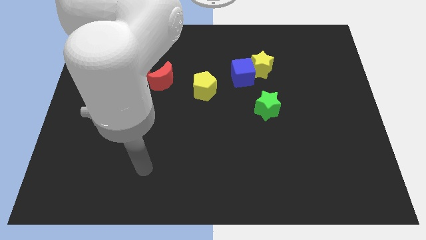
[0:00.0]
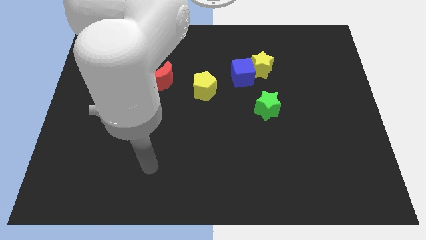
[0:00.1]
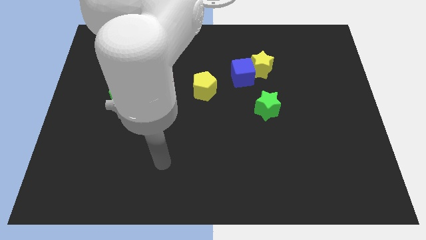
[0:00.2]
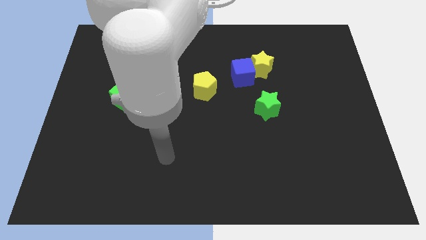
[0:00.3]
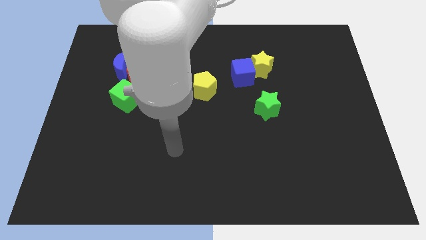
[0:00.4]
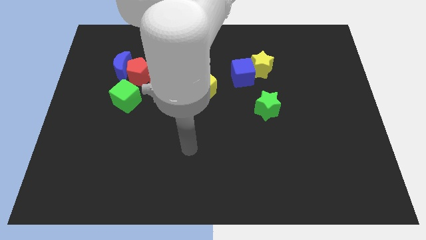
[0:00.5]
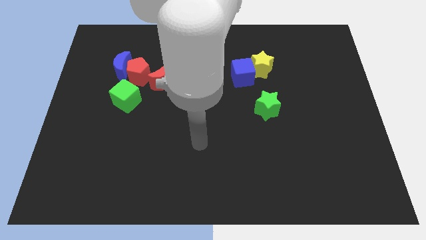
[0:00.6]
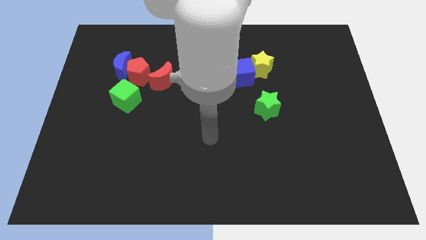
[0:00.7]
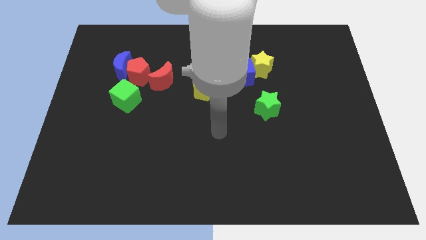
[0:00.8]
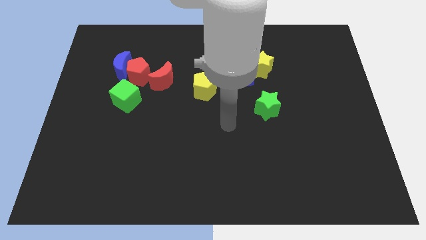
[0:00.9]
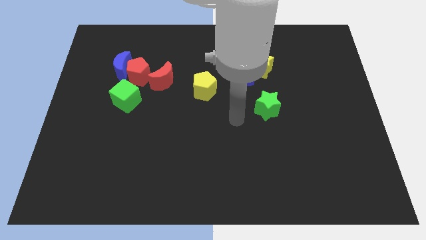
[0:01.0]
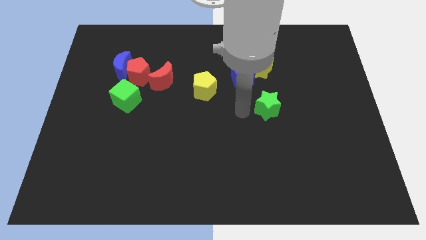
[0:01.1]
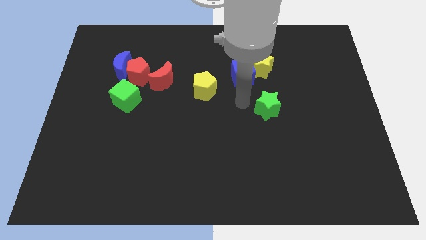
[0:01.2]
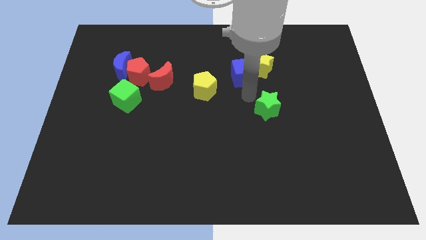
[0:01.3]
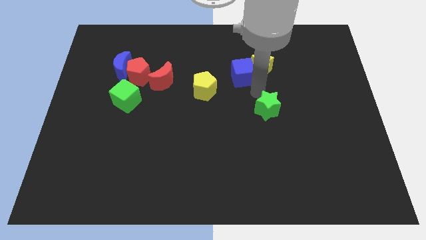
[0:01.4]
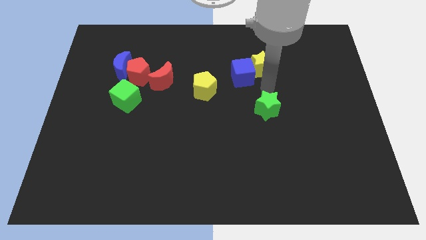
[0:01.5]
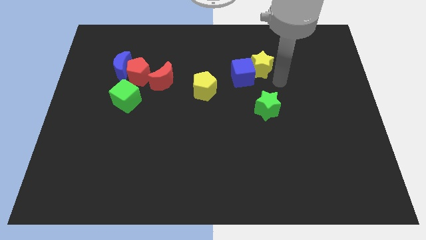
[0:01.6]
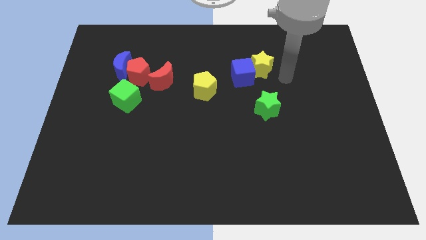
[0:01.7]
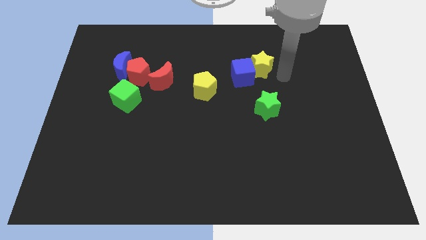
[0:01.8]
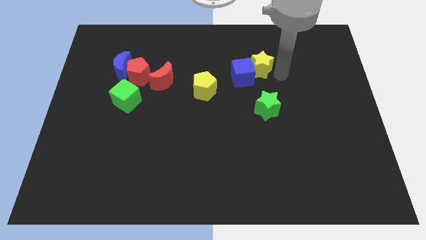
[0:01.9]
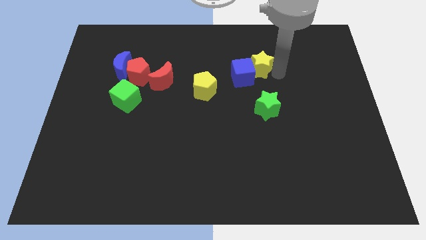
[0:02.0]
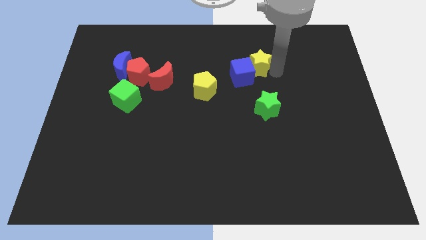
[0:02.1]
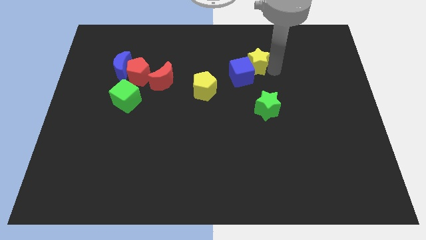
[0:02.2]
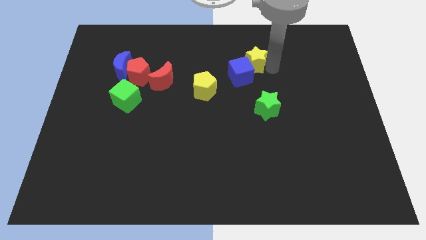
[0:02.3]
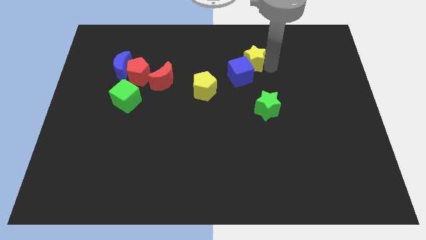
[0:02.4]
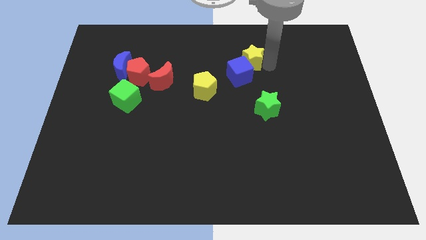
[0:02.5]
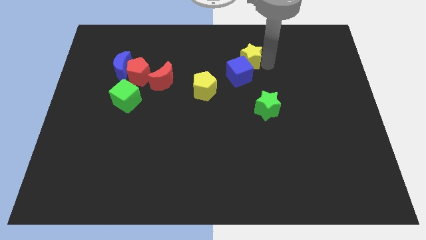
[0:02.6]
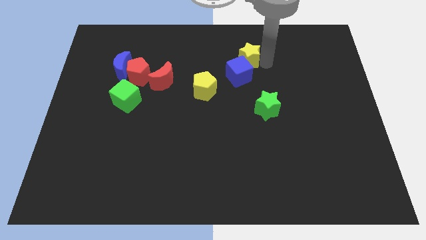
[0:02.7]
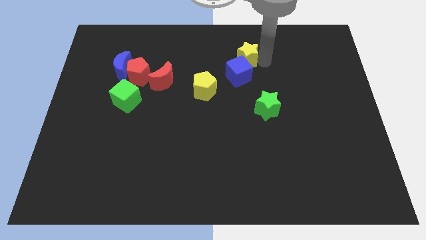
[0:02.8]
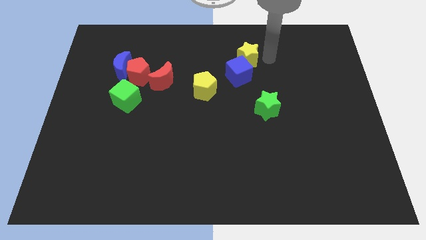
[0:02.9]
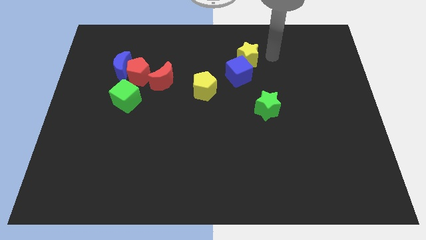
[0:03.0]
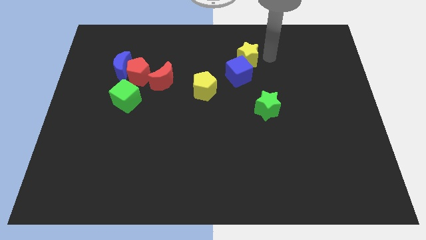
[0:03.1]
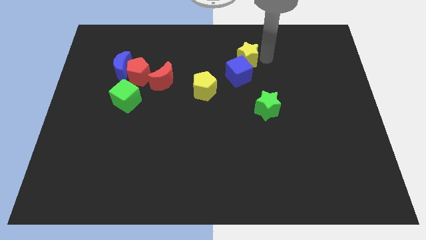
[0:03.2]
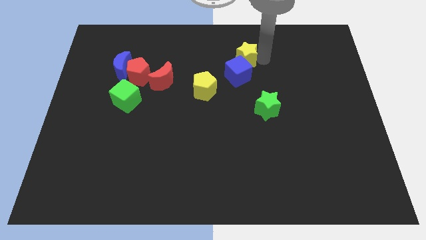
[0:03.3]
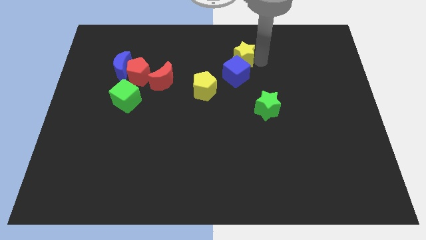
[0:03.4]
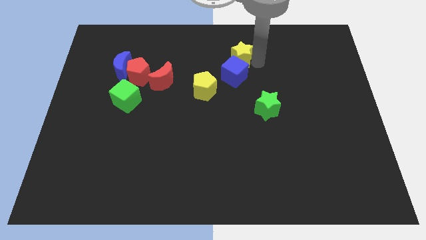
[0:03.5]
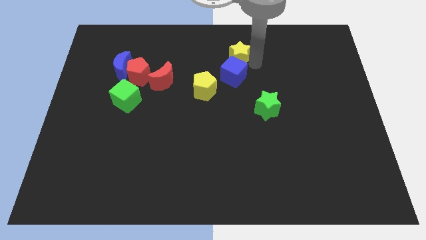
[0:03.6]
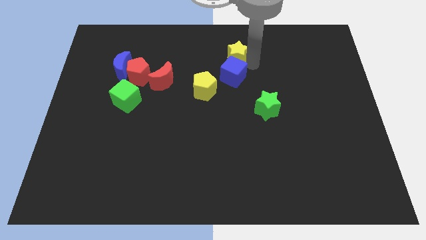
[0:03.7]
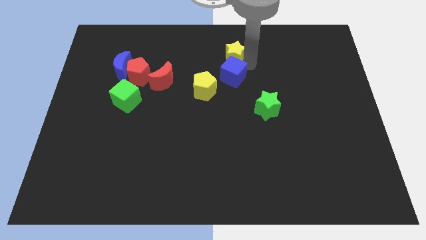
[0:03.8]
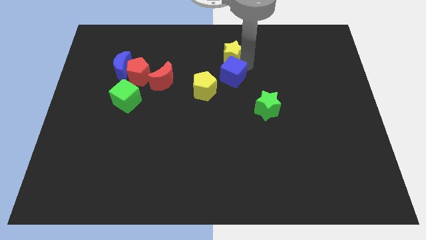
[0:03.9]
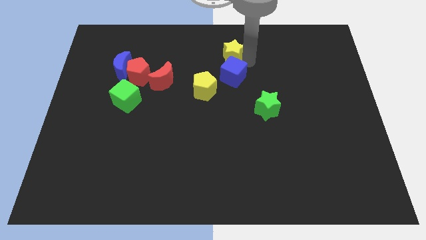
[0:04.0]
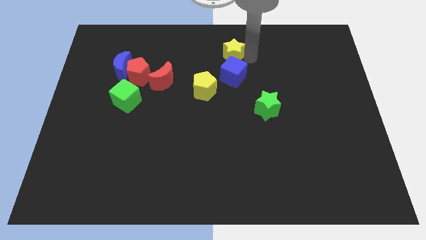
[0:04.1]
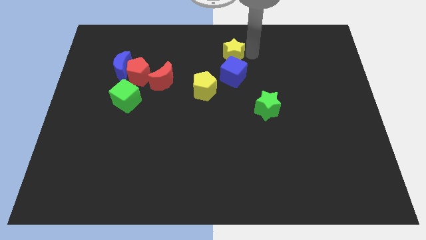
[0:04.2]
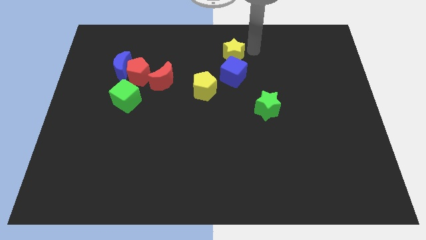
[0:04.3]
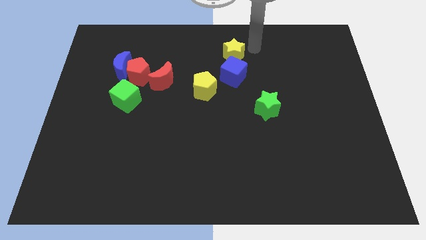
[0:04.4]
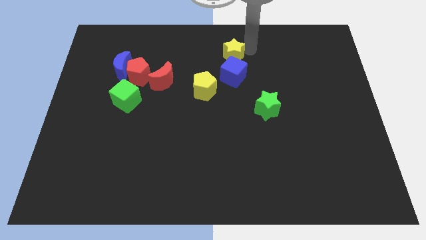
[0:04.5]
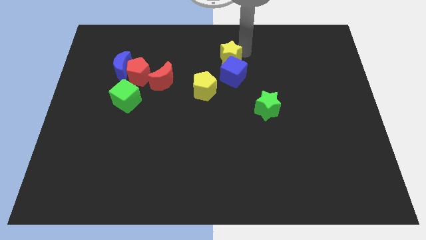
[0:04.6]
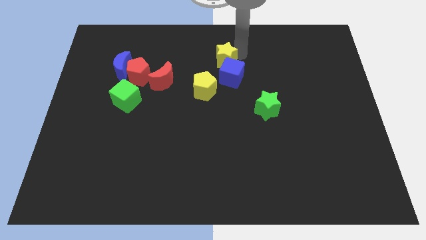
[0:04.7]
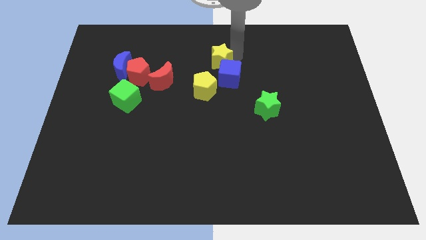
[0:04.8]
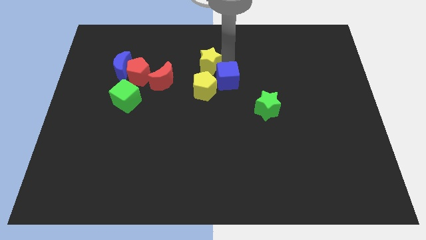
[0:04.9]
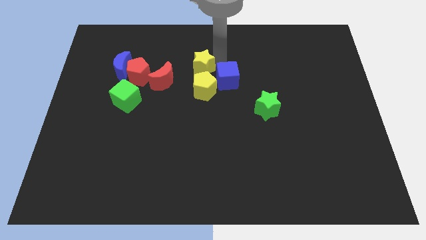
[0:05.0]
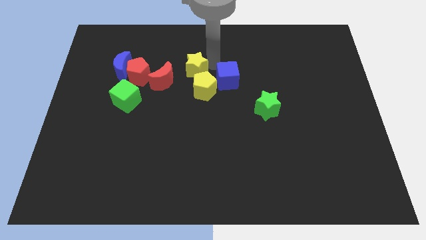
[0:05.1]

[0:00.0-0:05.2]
move the yellow star to the right of the red pentagon

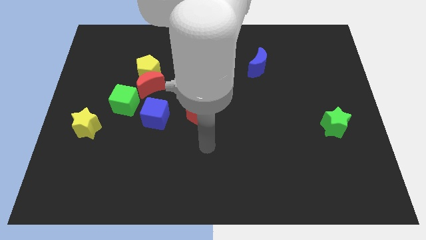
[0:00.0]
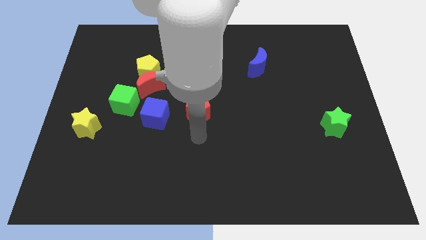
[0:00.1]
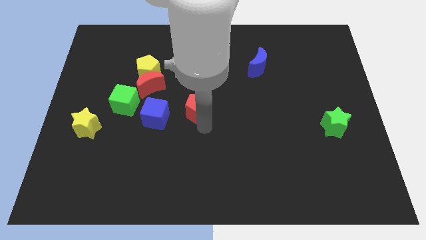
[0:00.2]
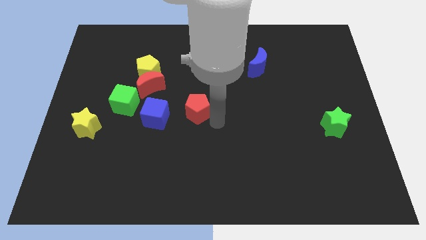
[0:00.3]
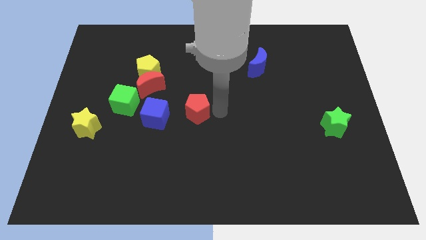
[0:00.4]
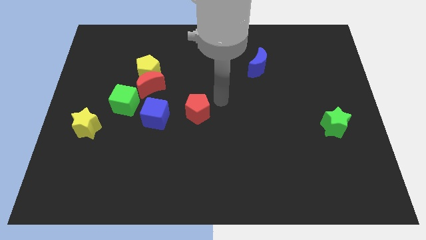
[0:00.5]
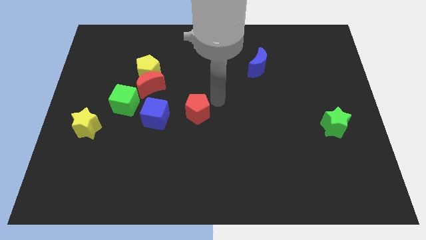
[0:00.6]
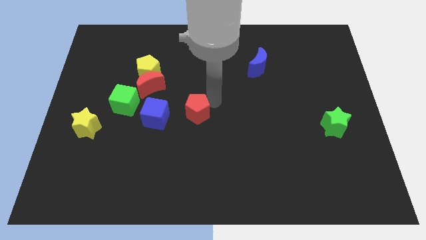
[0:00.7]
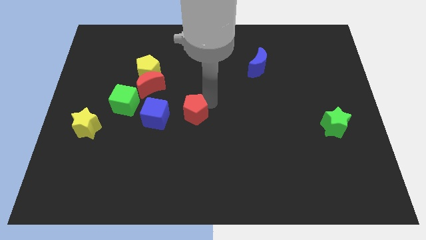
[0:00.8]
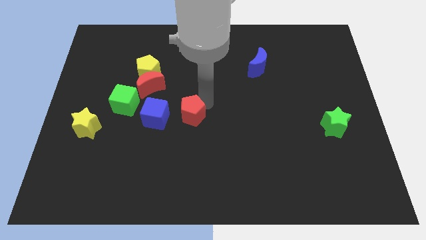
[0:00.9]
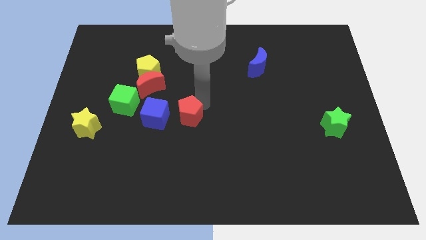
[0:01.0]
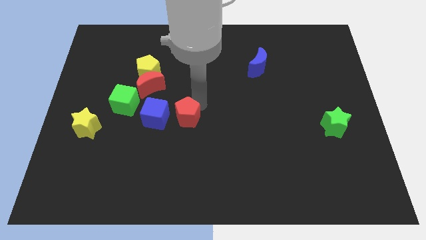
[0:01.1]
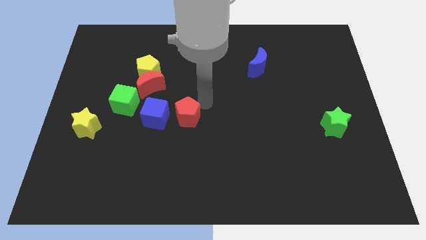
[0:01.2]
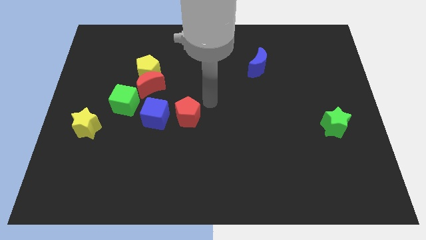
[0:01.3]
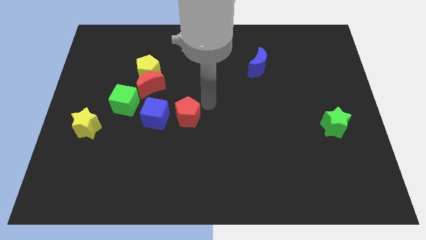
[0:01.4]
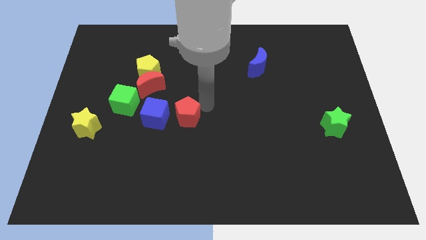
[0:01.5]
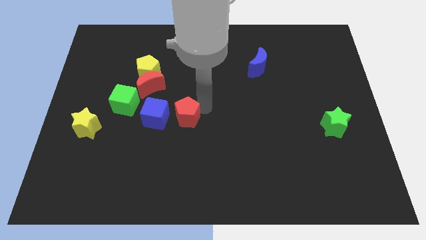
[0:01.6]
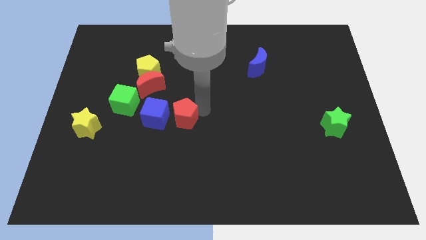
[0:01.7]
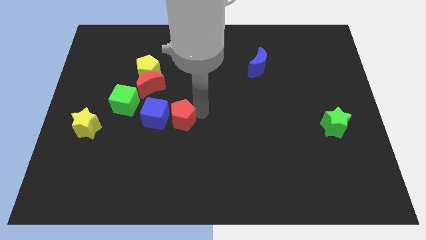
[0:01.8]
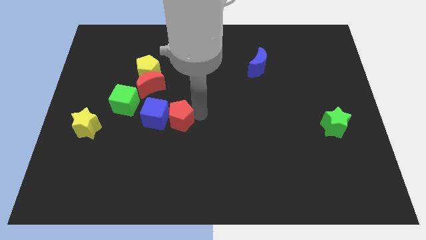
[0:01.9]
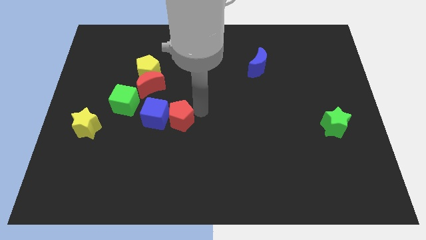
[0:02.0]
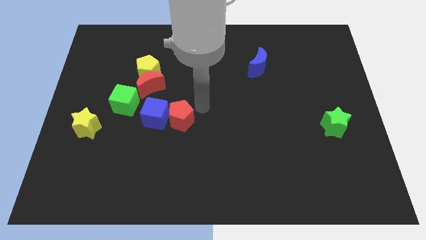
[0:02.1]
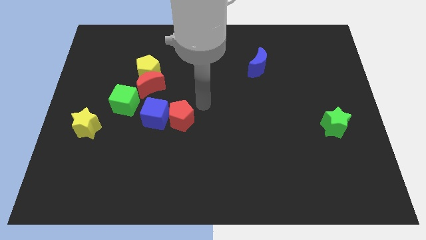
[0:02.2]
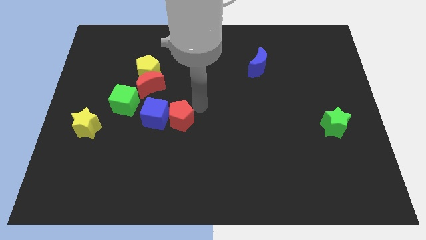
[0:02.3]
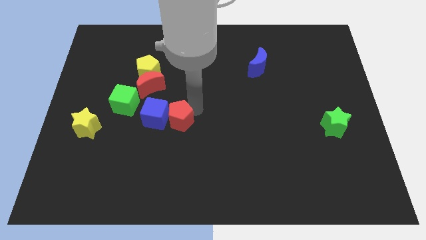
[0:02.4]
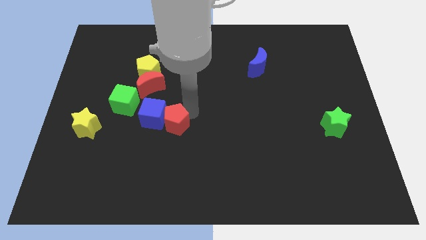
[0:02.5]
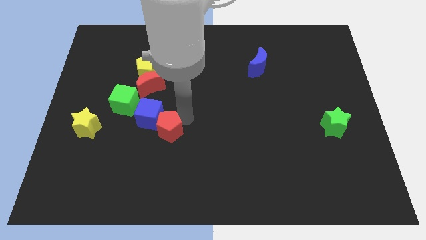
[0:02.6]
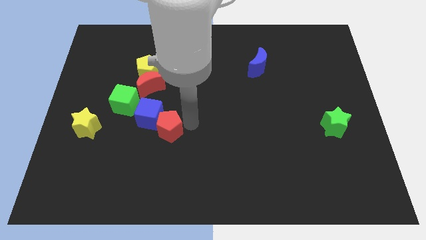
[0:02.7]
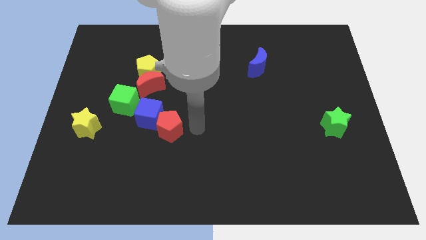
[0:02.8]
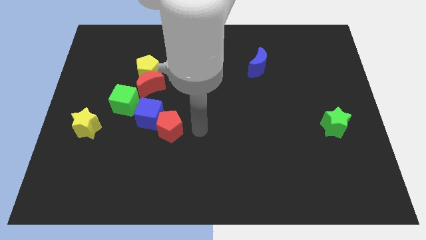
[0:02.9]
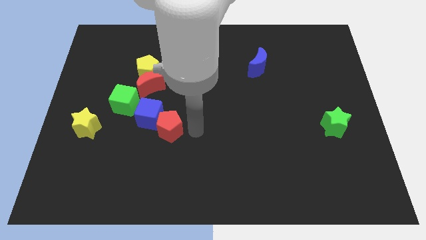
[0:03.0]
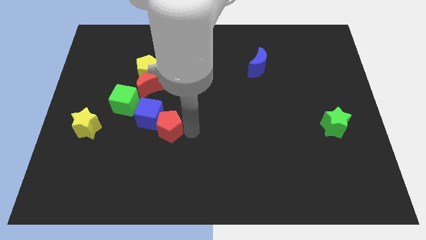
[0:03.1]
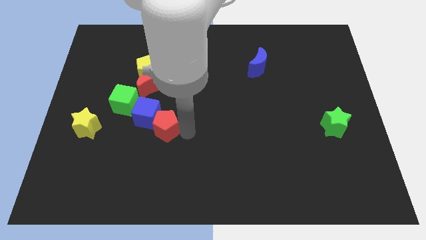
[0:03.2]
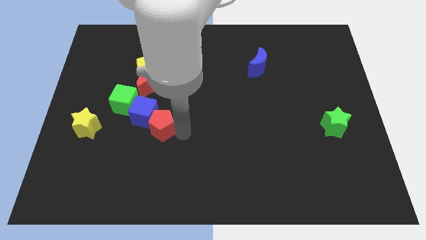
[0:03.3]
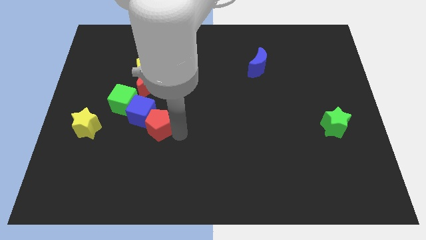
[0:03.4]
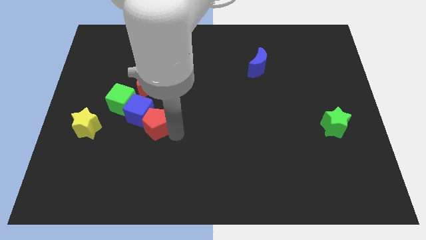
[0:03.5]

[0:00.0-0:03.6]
move the red pentagon just right of the yellow star
